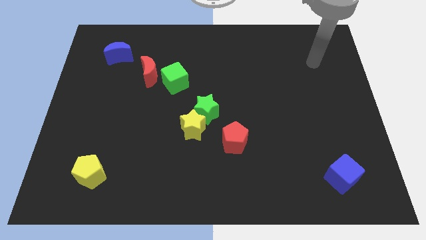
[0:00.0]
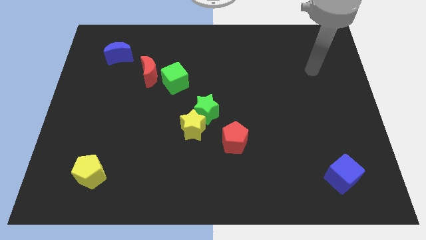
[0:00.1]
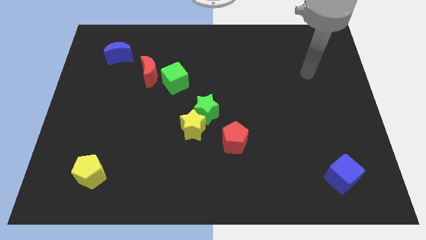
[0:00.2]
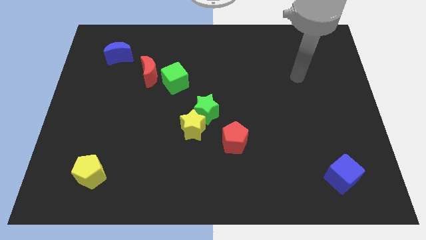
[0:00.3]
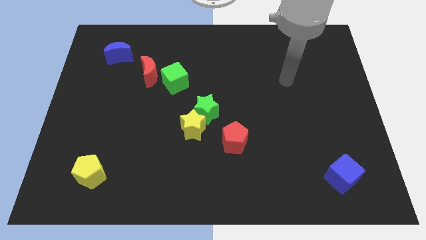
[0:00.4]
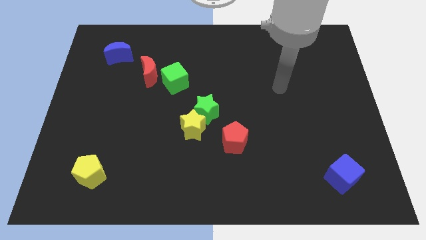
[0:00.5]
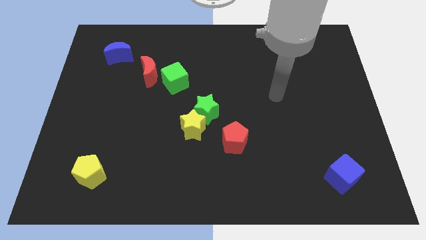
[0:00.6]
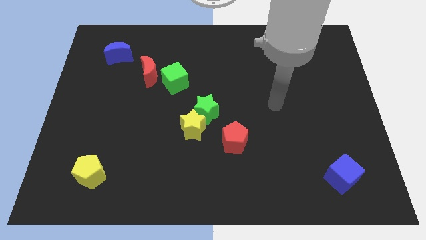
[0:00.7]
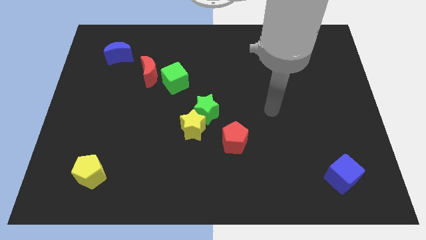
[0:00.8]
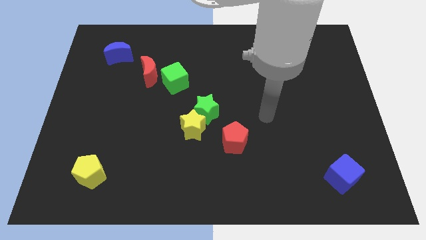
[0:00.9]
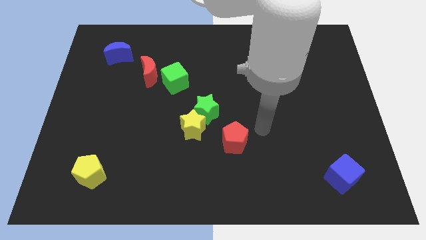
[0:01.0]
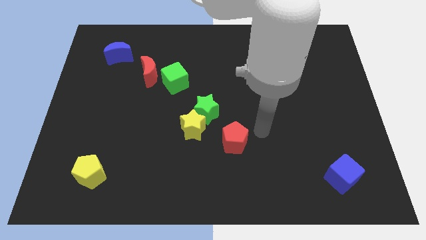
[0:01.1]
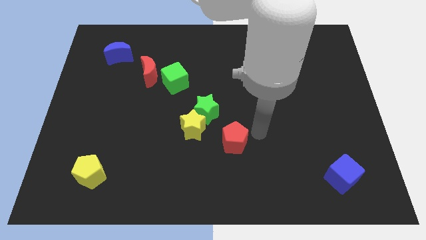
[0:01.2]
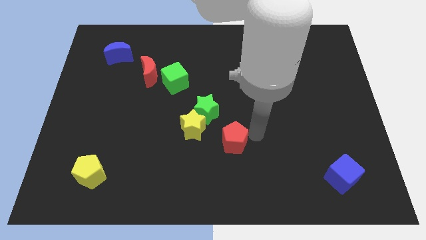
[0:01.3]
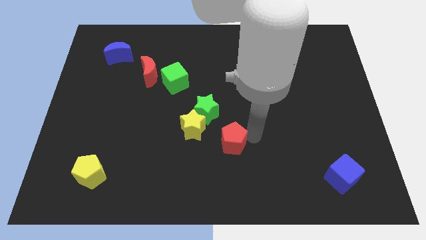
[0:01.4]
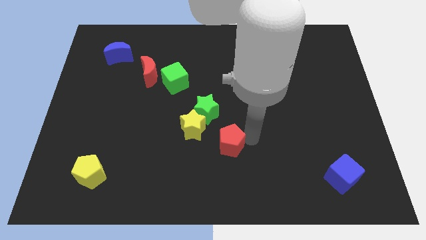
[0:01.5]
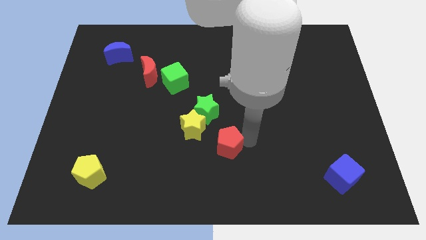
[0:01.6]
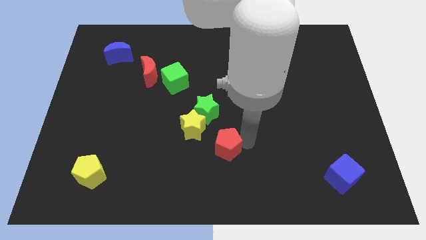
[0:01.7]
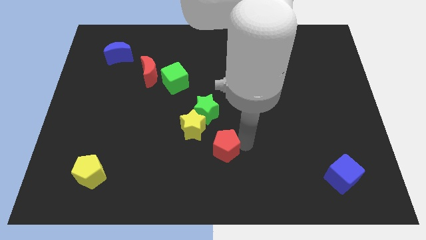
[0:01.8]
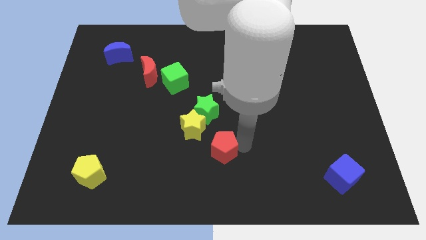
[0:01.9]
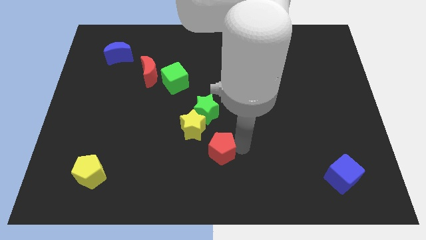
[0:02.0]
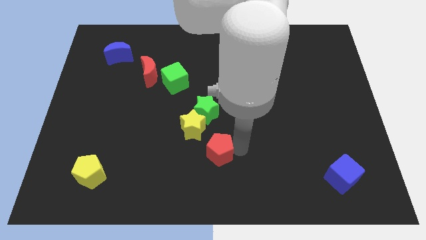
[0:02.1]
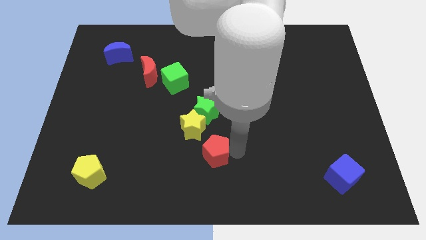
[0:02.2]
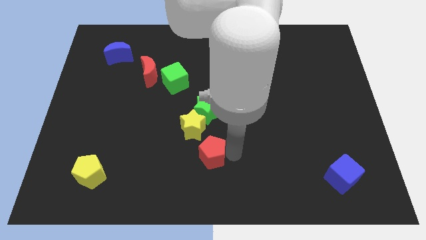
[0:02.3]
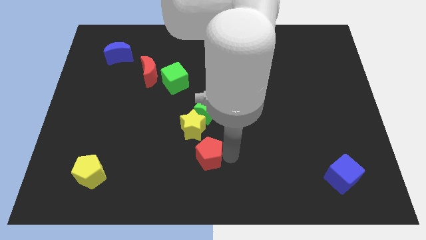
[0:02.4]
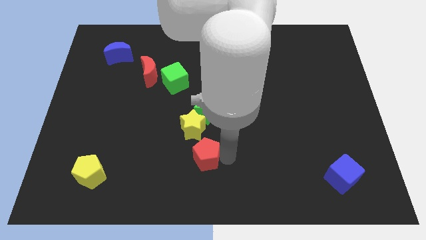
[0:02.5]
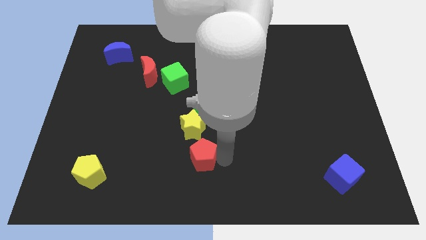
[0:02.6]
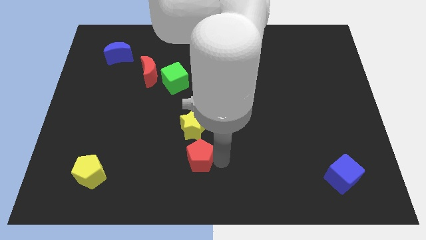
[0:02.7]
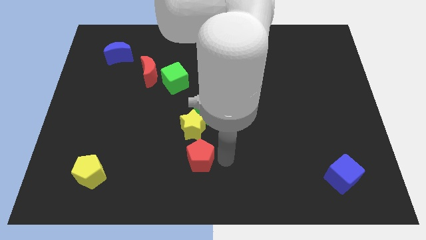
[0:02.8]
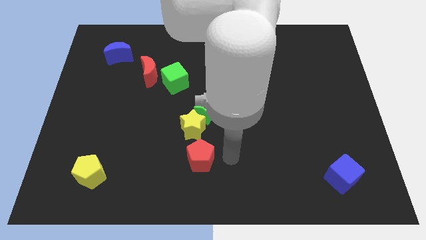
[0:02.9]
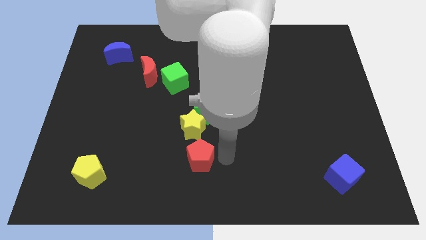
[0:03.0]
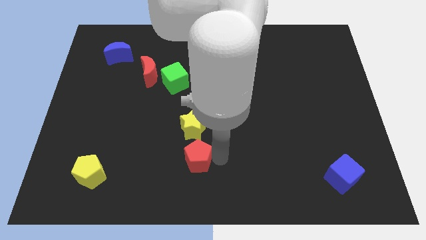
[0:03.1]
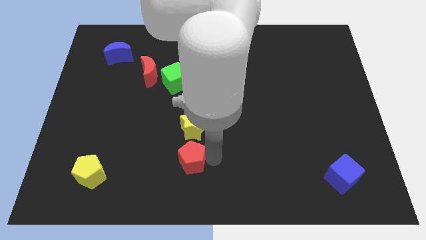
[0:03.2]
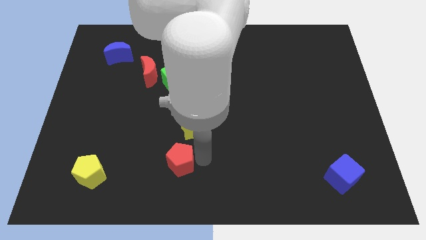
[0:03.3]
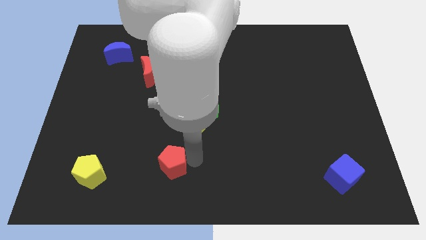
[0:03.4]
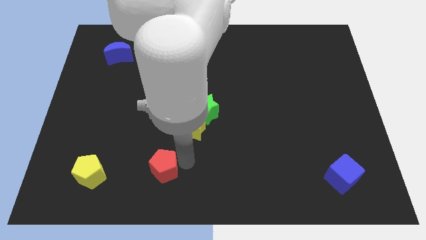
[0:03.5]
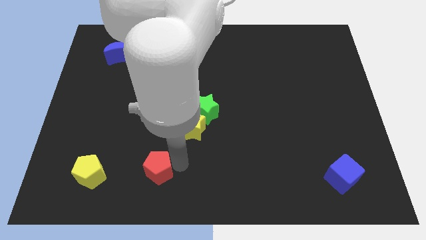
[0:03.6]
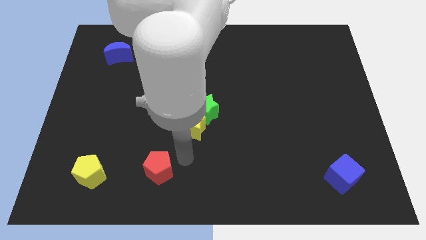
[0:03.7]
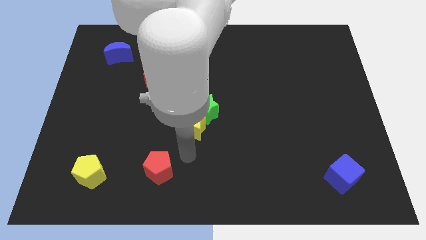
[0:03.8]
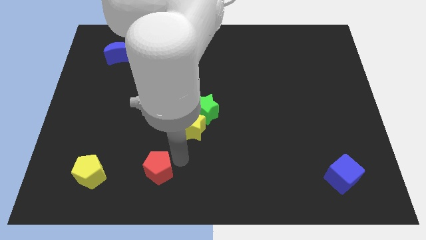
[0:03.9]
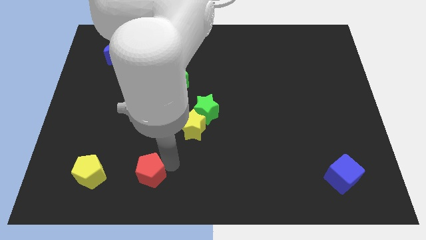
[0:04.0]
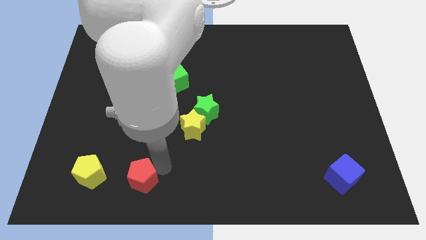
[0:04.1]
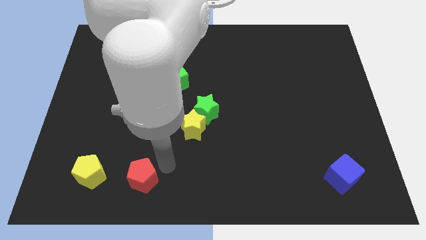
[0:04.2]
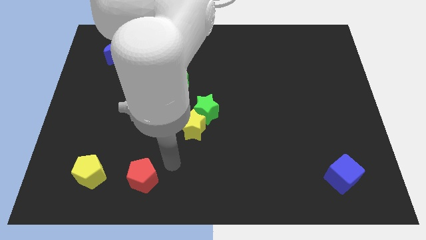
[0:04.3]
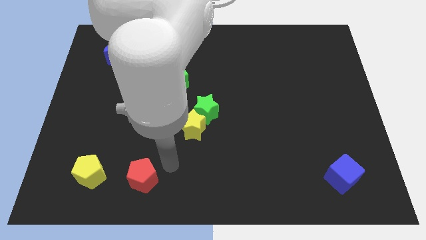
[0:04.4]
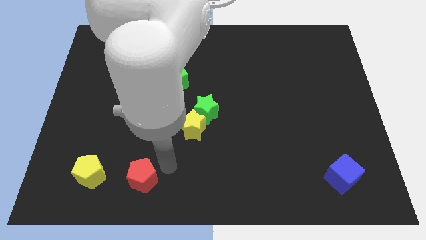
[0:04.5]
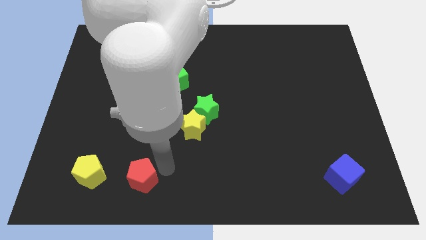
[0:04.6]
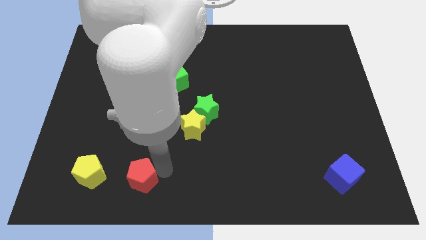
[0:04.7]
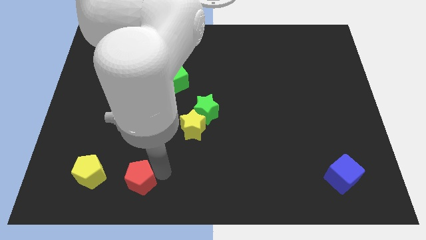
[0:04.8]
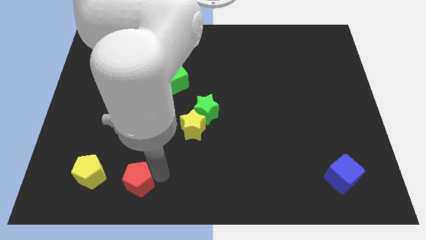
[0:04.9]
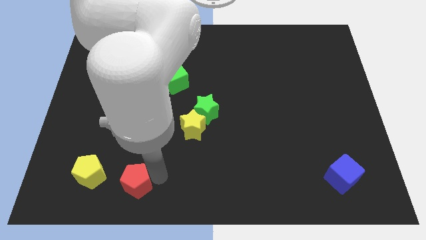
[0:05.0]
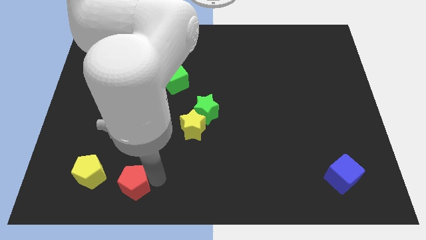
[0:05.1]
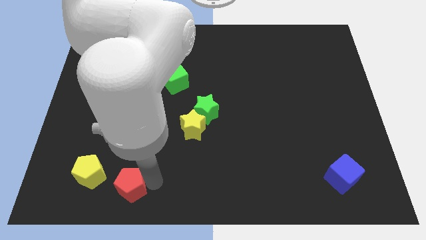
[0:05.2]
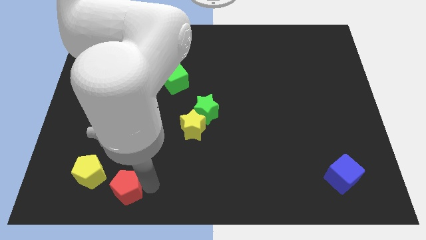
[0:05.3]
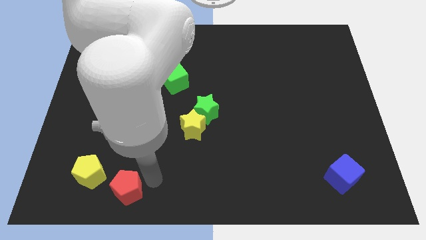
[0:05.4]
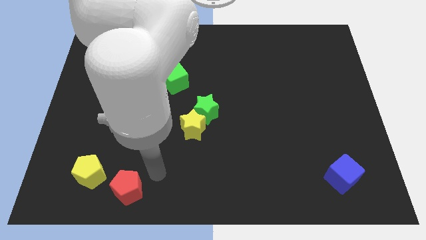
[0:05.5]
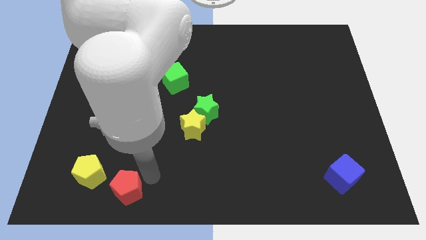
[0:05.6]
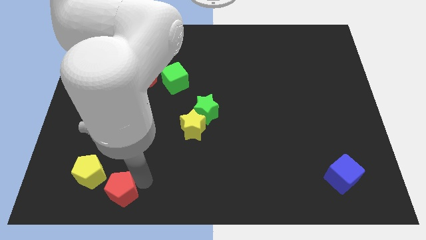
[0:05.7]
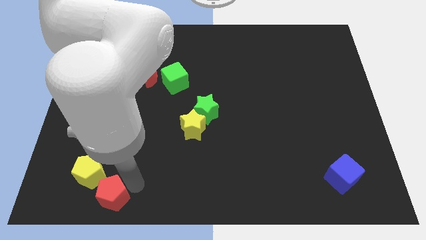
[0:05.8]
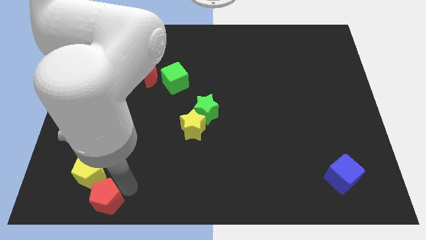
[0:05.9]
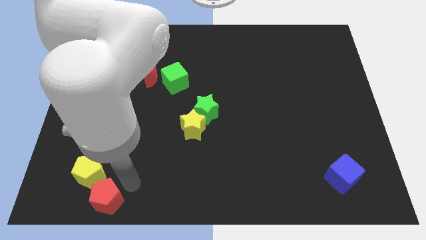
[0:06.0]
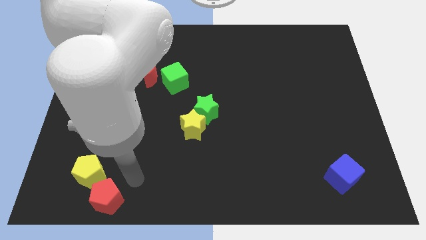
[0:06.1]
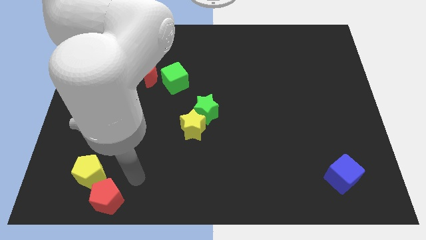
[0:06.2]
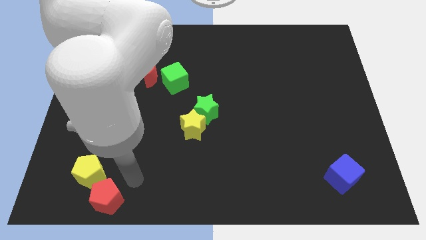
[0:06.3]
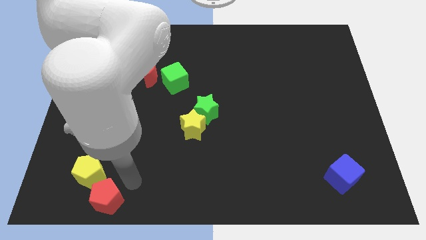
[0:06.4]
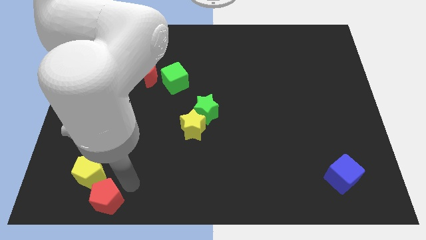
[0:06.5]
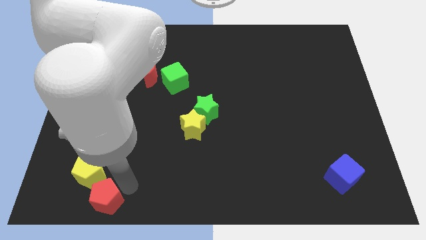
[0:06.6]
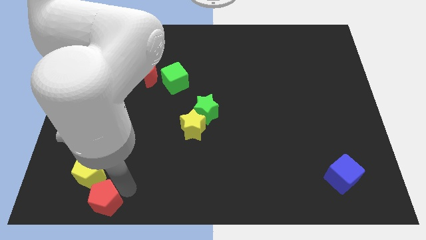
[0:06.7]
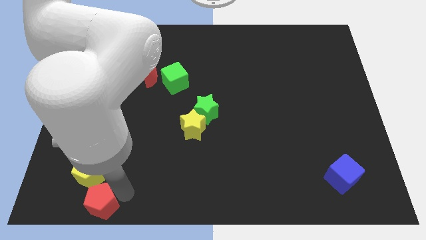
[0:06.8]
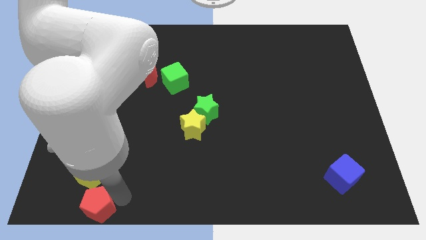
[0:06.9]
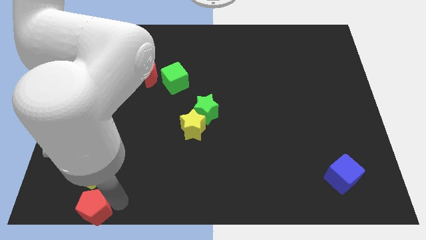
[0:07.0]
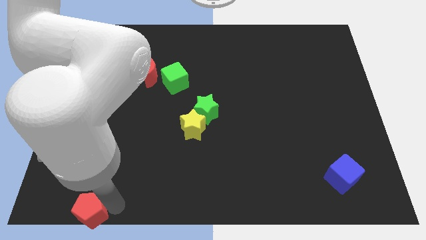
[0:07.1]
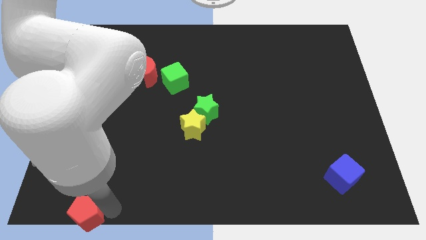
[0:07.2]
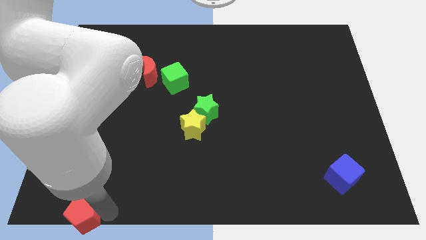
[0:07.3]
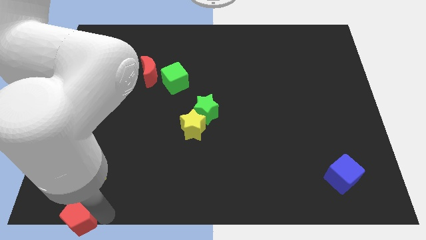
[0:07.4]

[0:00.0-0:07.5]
move the red pentagon to the bottom left of the board
